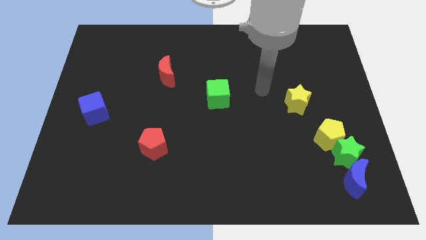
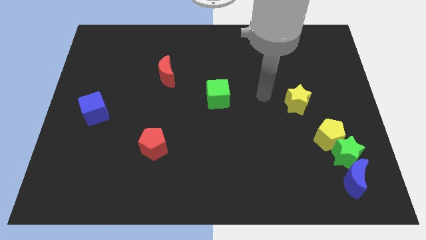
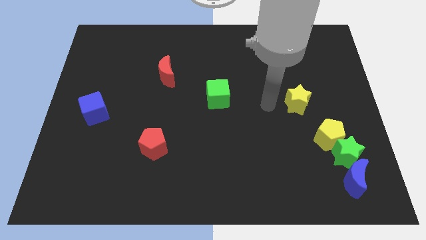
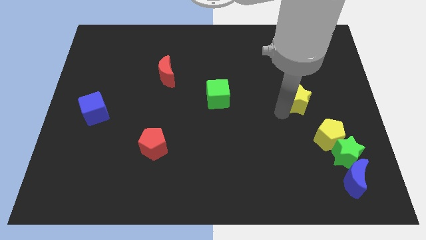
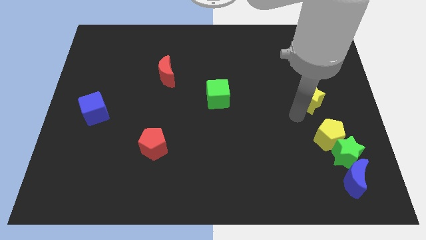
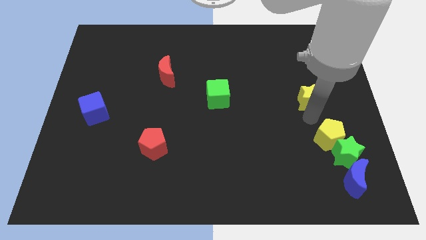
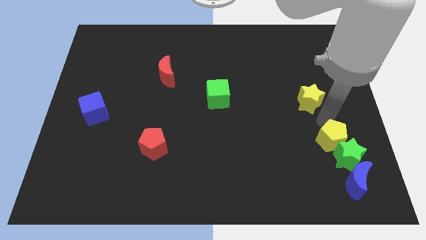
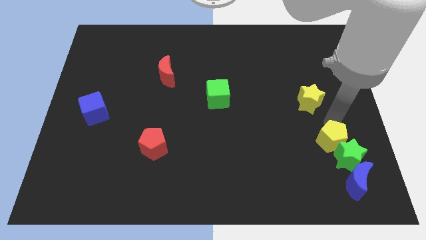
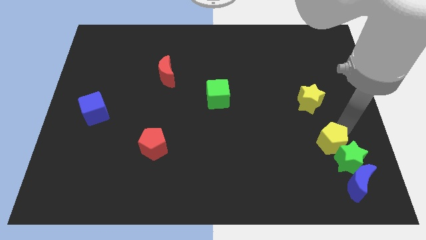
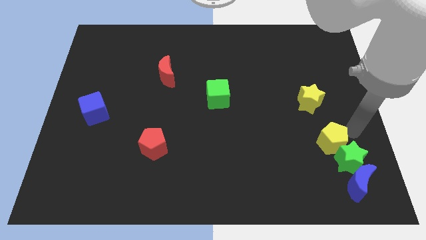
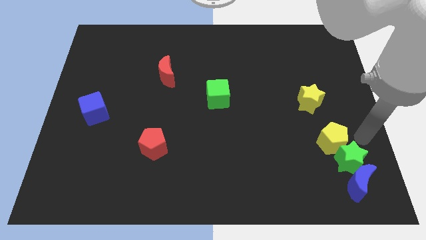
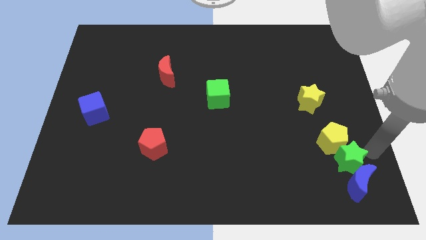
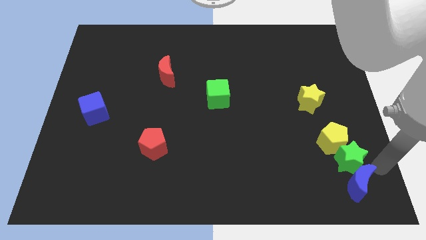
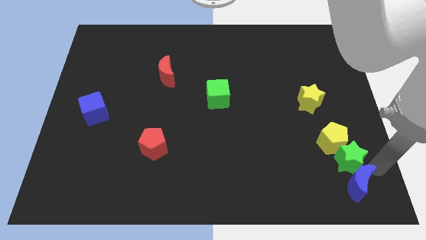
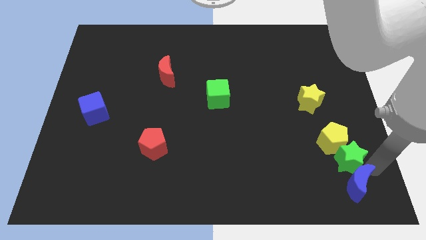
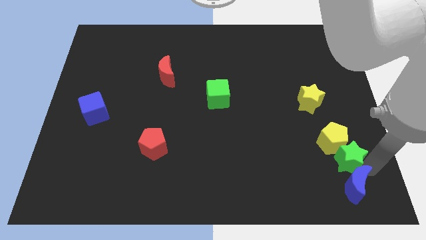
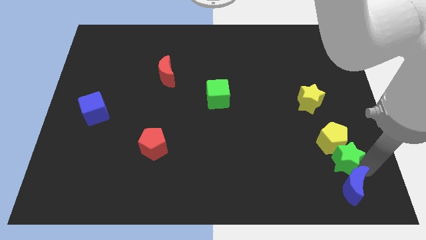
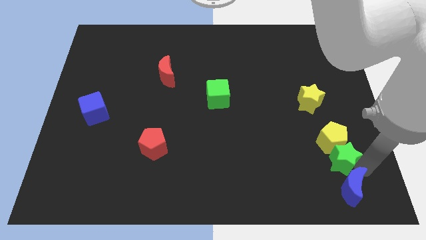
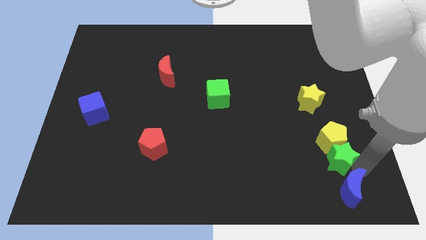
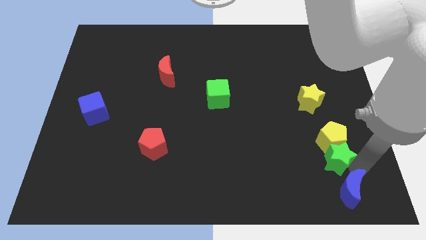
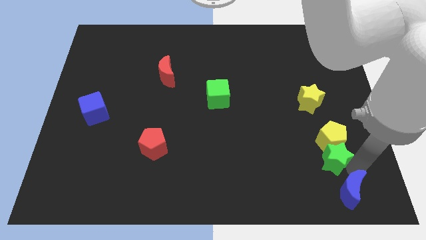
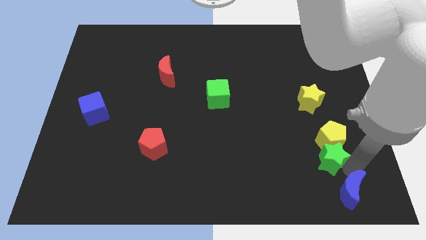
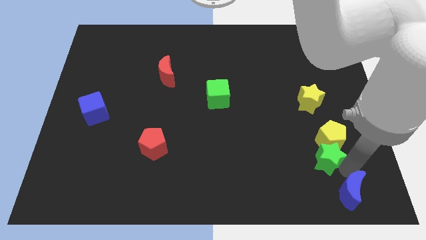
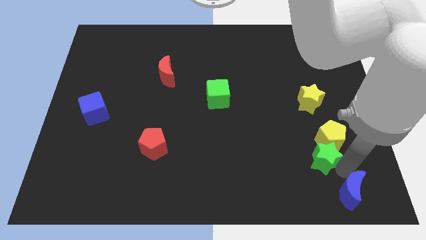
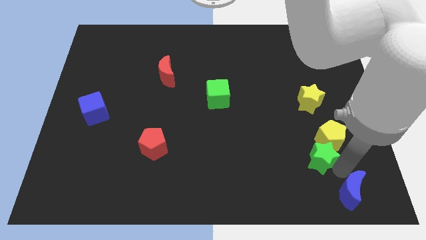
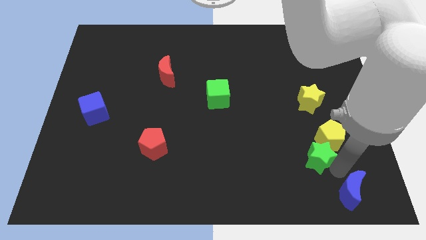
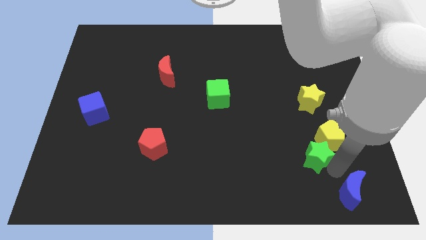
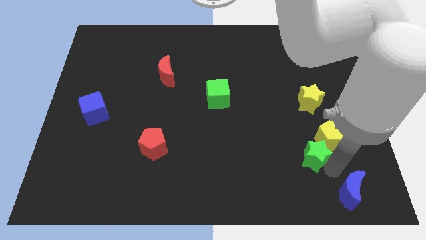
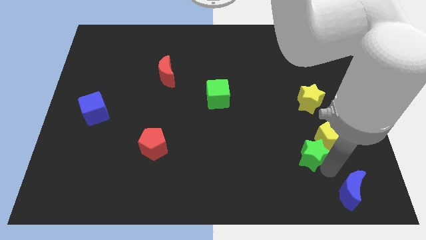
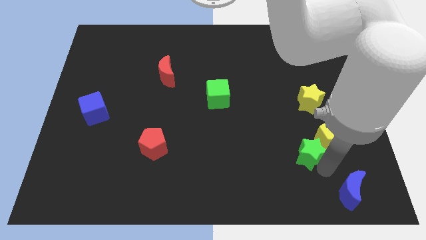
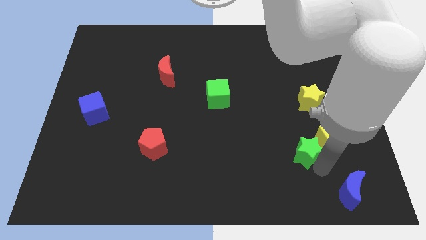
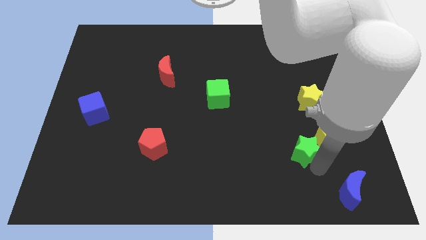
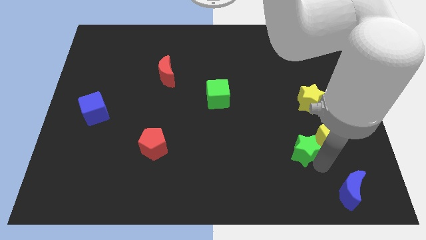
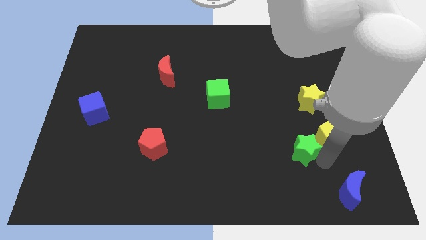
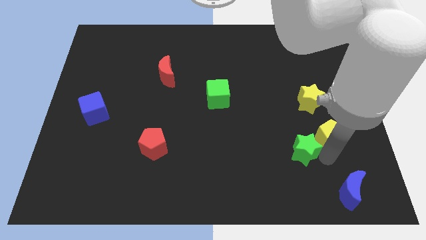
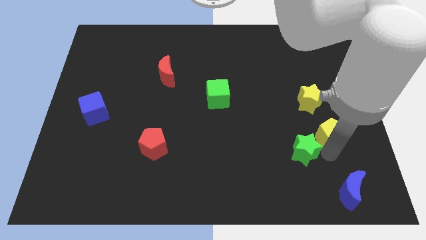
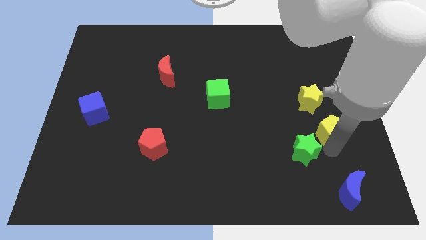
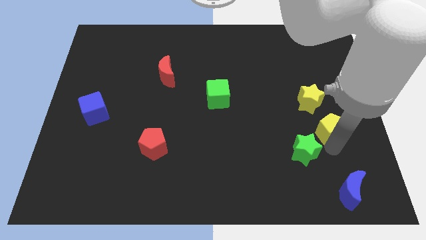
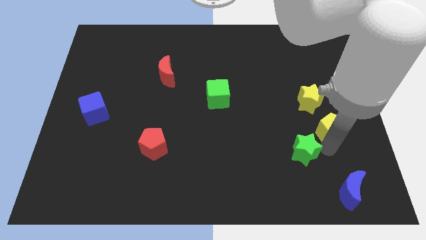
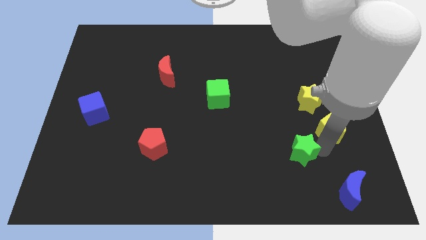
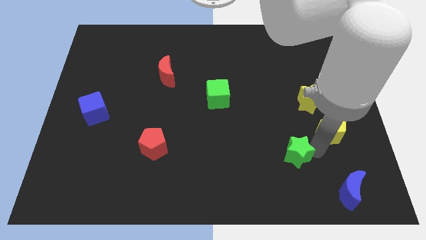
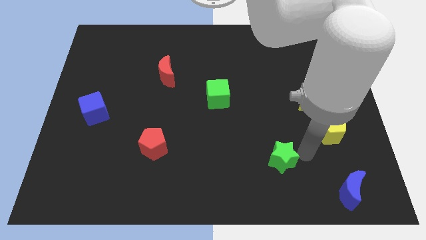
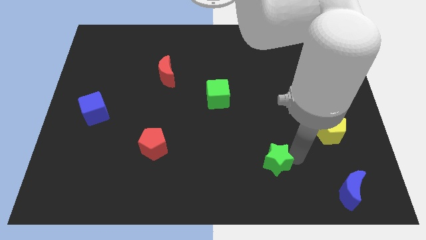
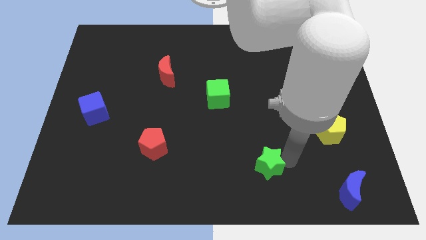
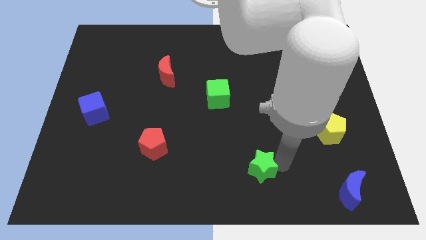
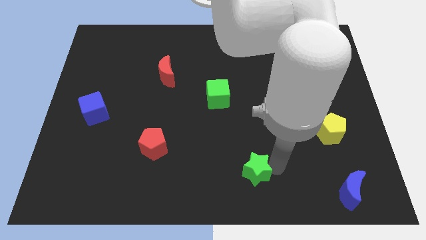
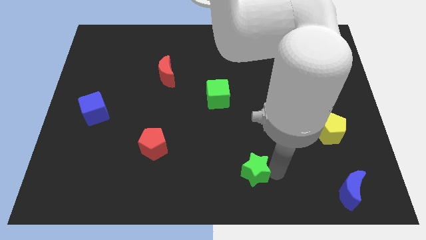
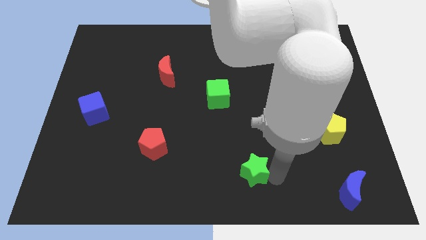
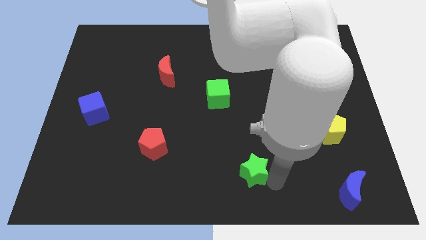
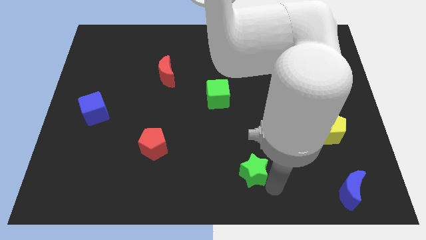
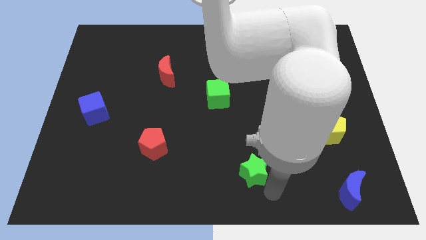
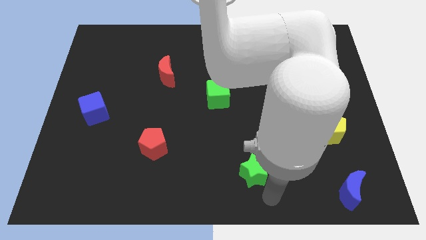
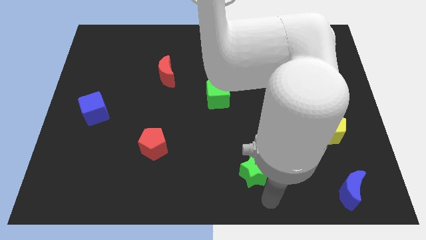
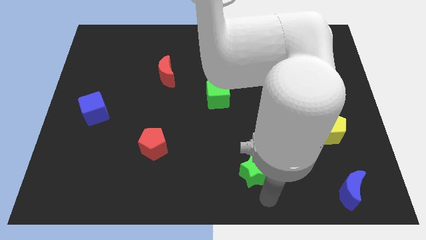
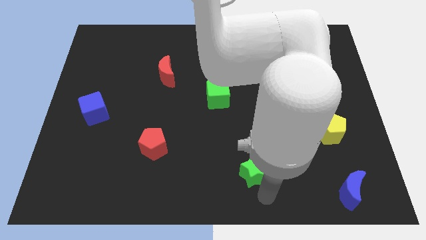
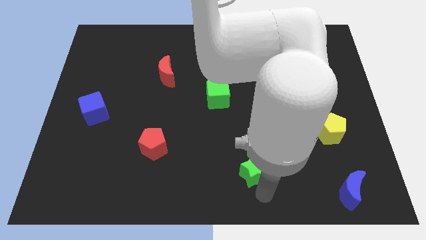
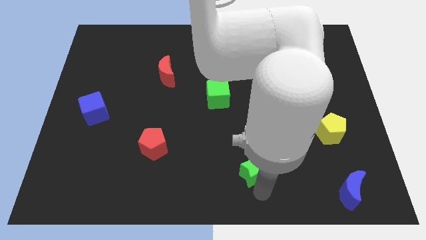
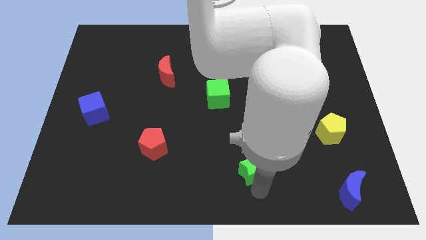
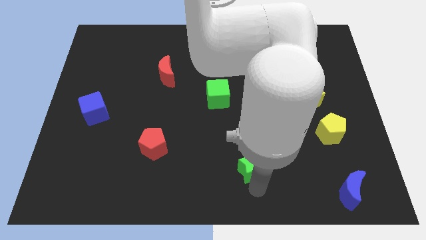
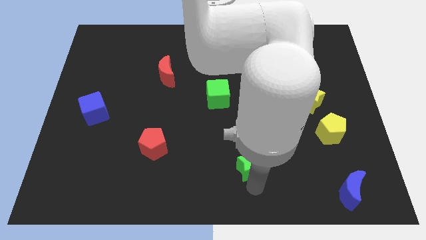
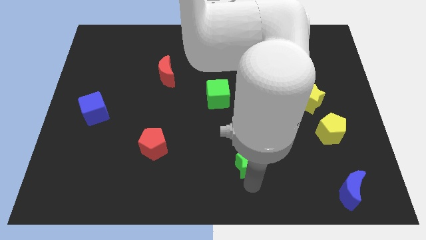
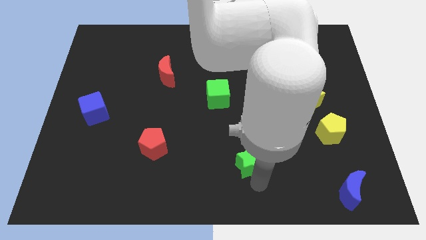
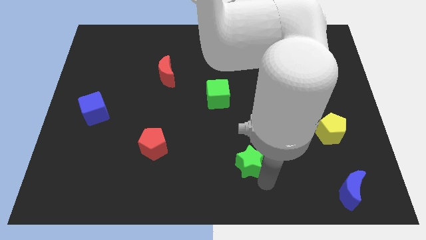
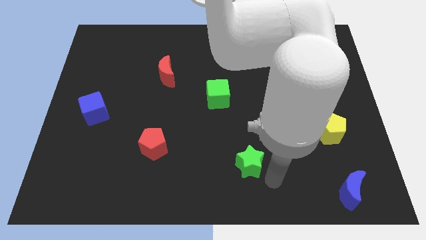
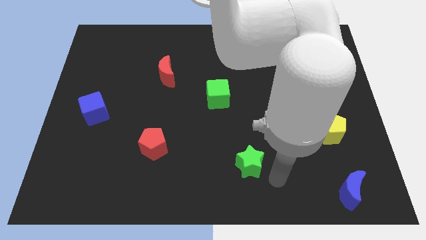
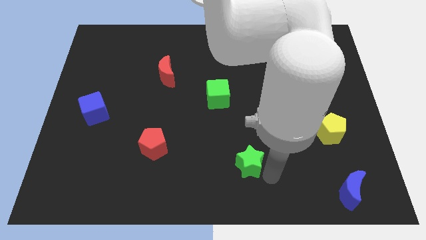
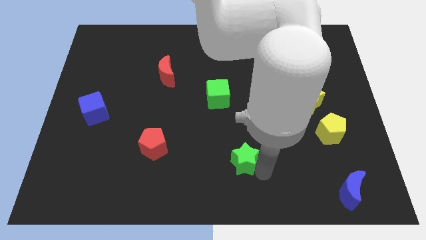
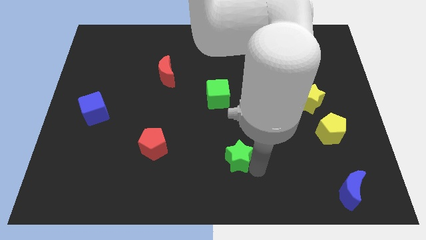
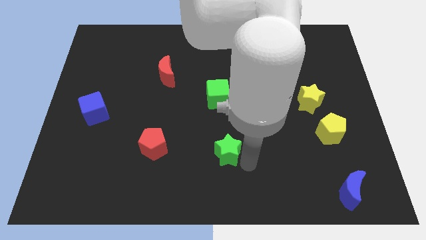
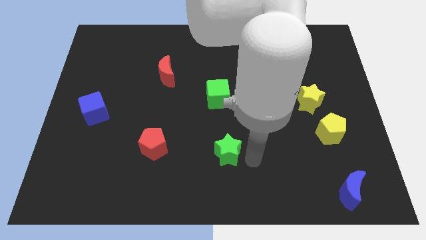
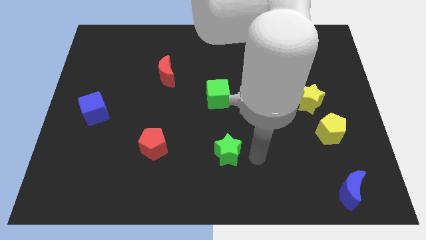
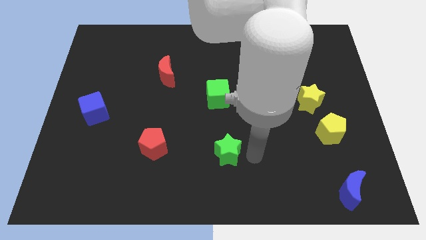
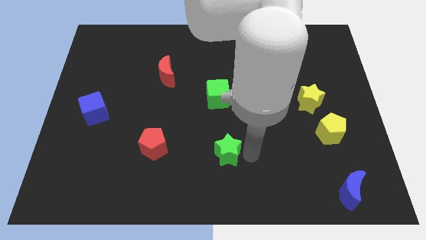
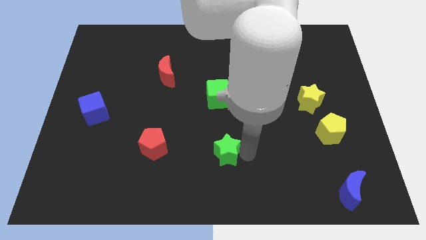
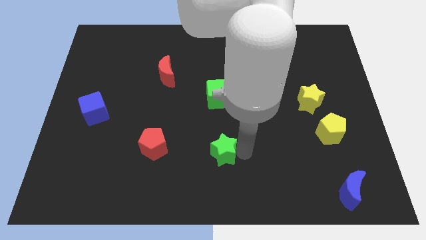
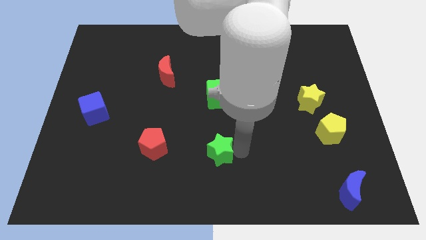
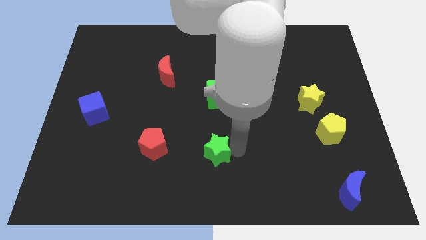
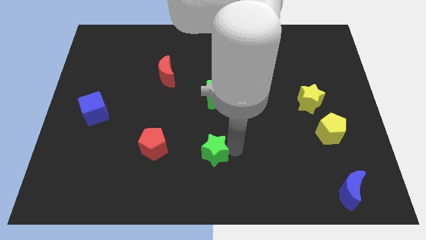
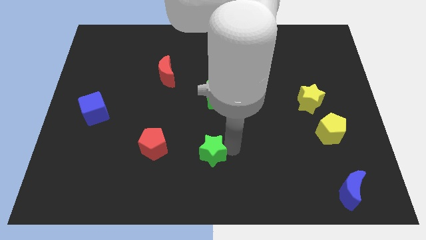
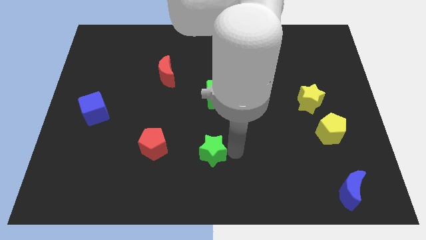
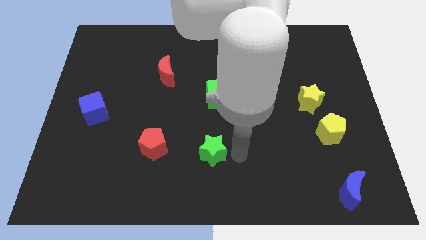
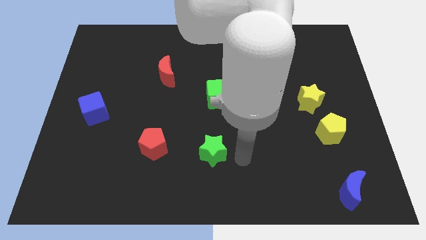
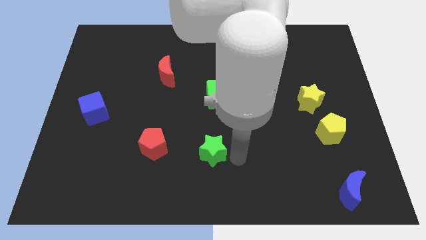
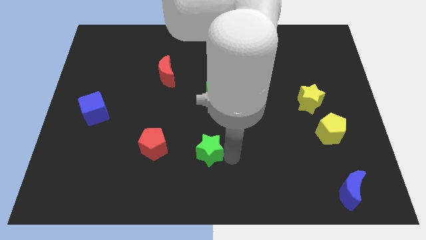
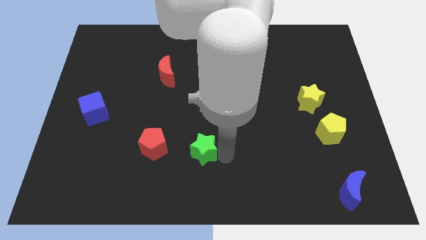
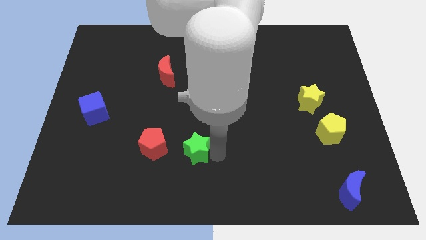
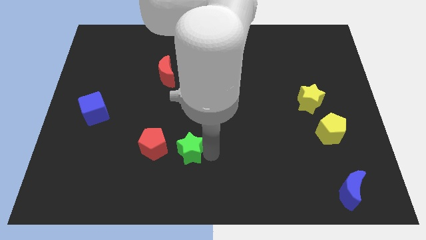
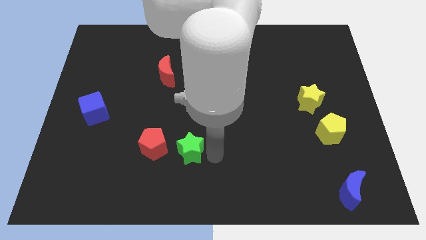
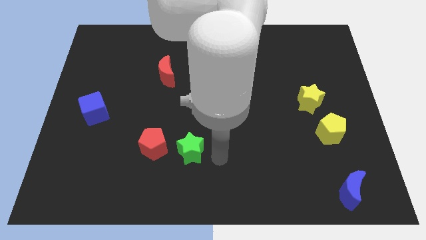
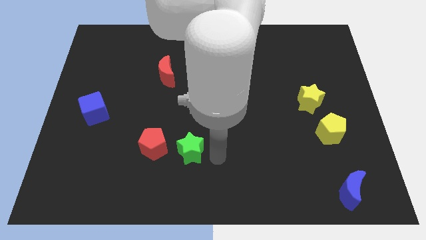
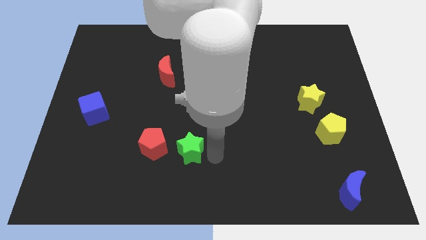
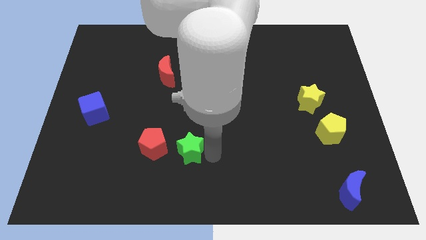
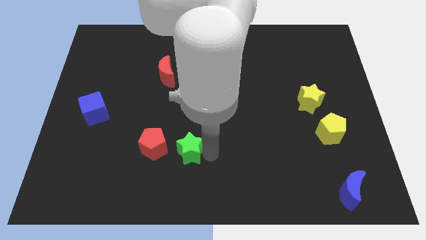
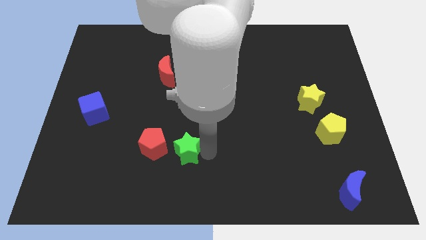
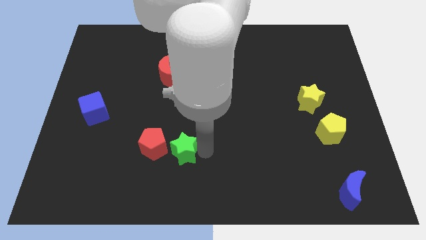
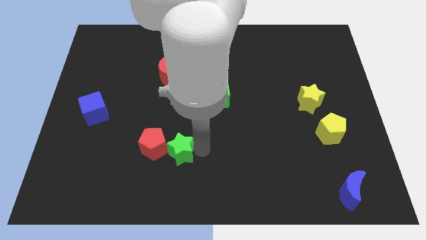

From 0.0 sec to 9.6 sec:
push the green star next to the red pentagon
